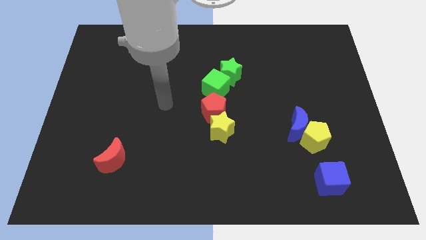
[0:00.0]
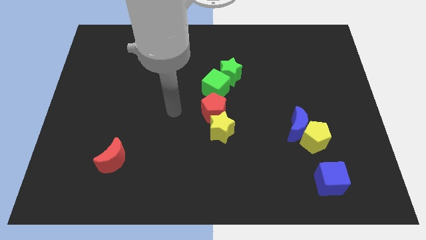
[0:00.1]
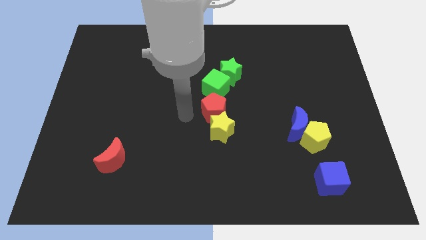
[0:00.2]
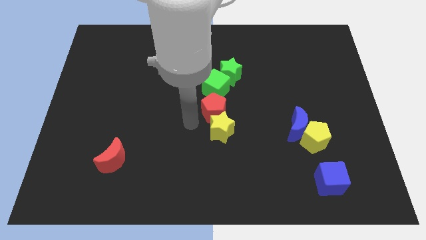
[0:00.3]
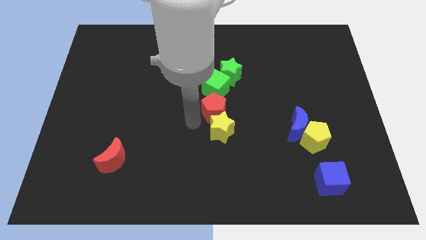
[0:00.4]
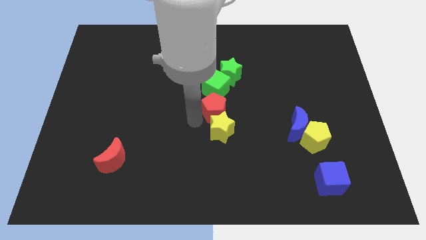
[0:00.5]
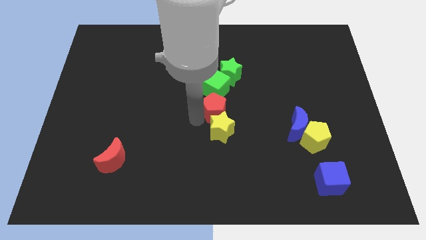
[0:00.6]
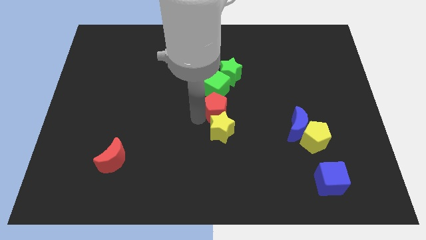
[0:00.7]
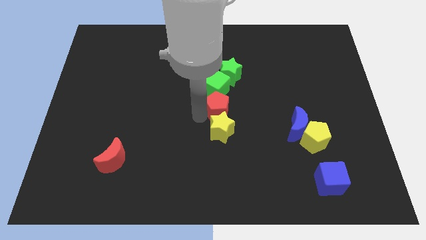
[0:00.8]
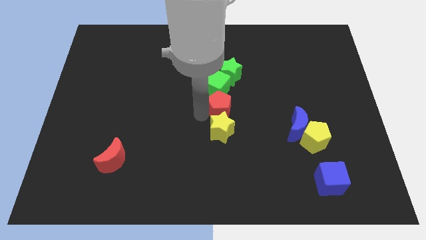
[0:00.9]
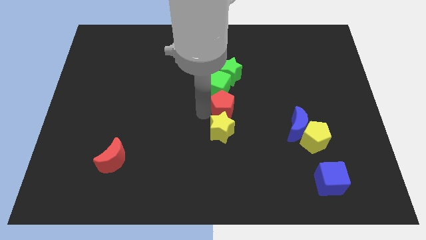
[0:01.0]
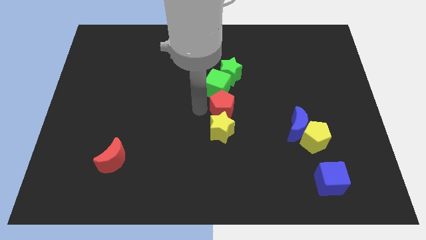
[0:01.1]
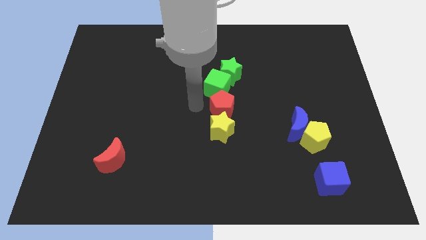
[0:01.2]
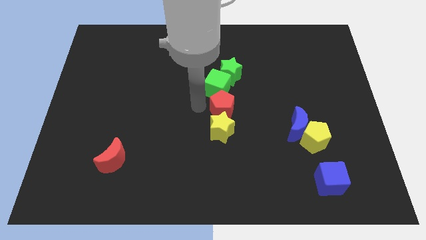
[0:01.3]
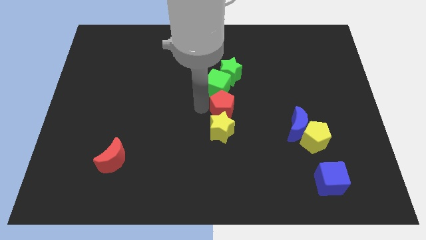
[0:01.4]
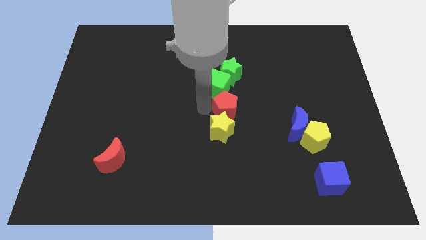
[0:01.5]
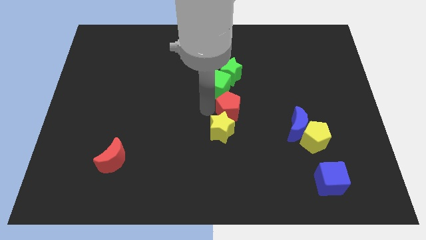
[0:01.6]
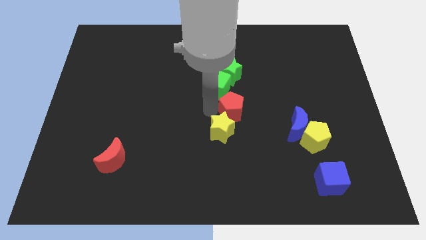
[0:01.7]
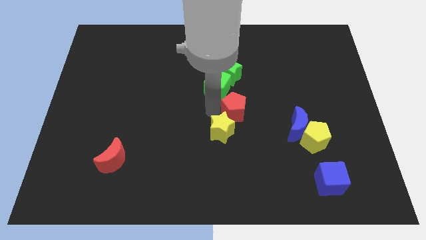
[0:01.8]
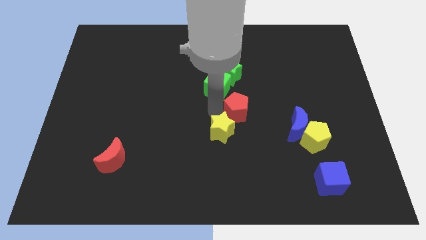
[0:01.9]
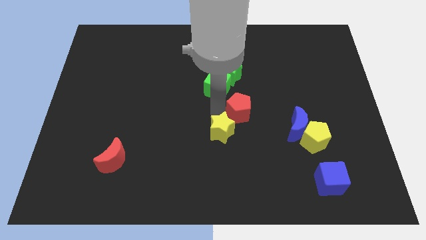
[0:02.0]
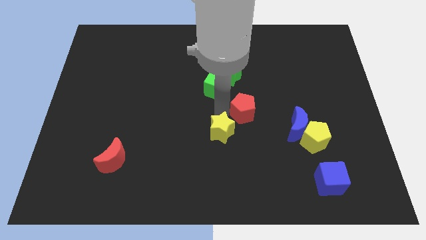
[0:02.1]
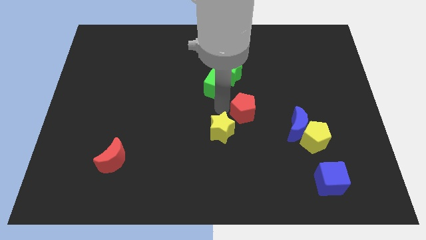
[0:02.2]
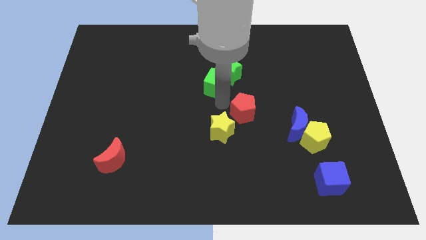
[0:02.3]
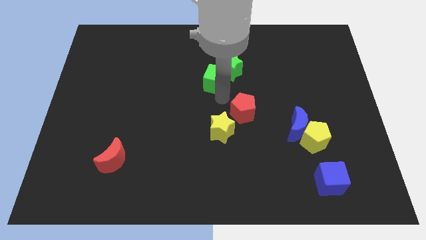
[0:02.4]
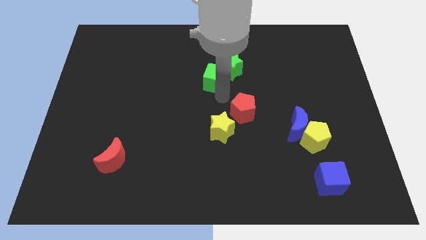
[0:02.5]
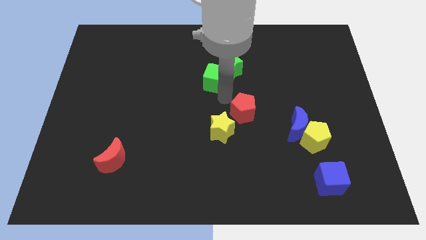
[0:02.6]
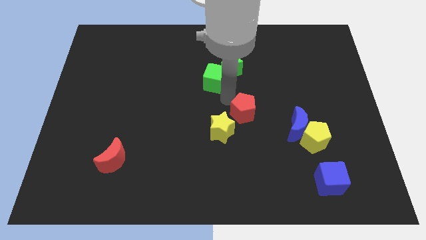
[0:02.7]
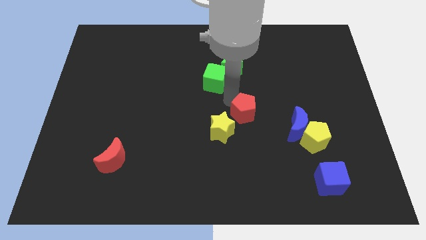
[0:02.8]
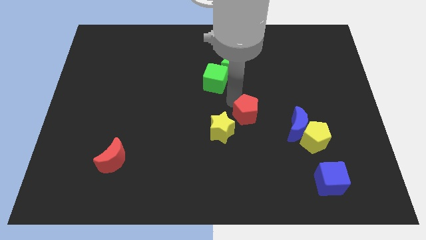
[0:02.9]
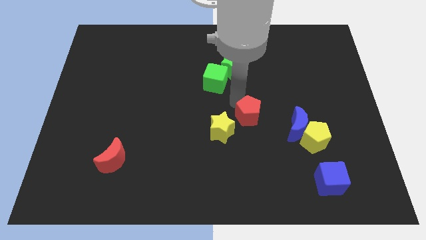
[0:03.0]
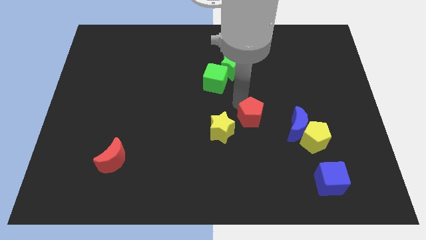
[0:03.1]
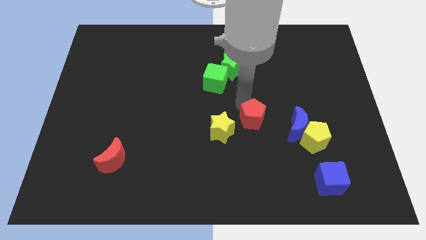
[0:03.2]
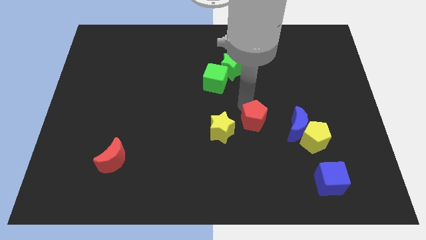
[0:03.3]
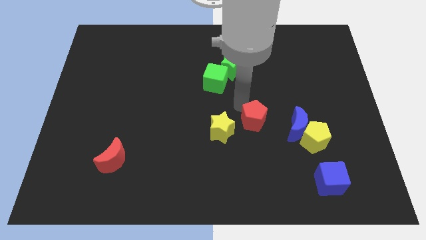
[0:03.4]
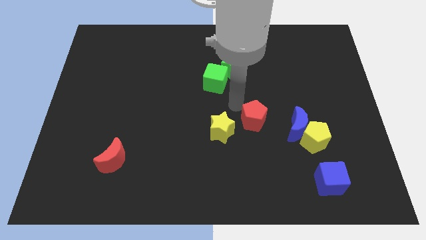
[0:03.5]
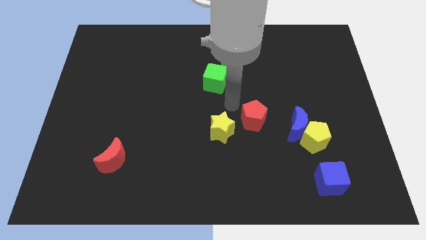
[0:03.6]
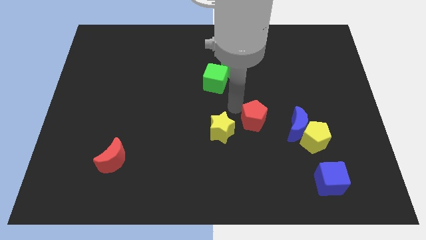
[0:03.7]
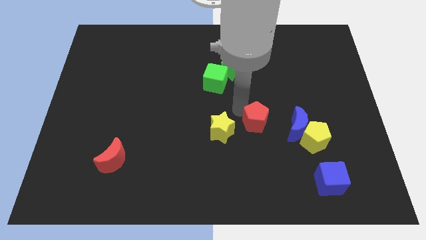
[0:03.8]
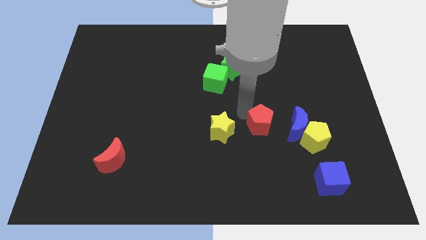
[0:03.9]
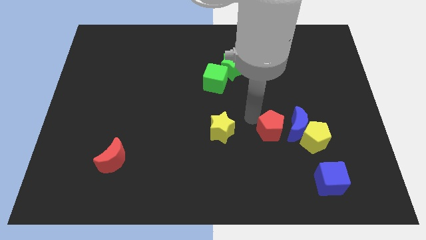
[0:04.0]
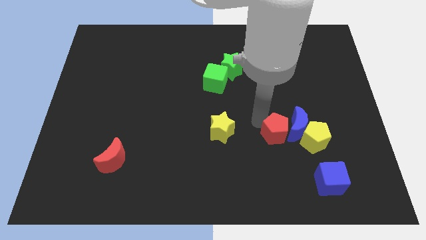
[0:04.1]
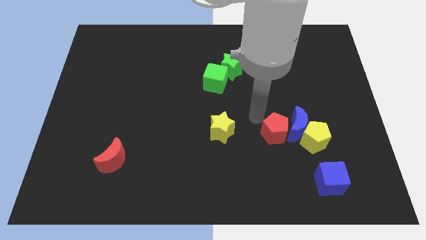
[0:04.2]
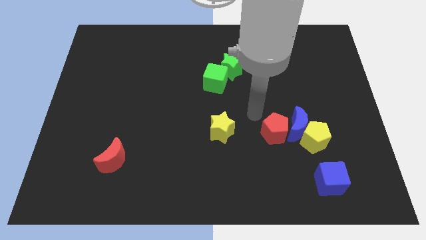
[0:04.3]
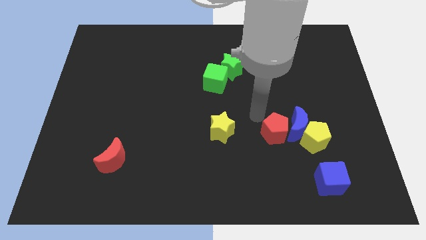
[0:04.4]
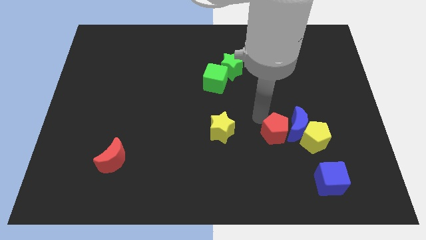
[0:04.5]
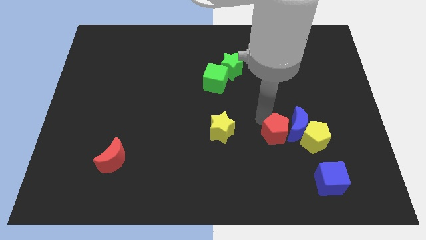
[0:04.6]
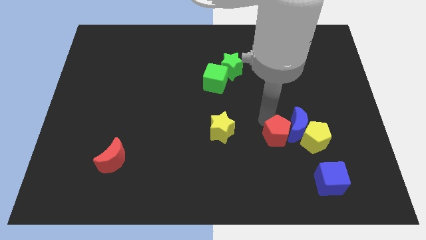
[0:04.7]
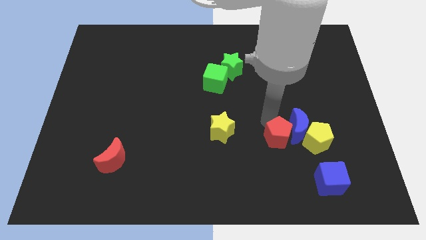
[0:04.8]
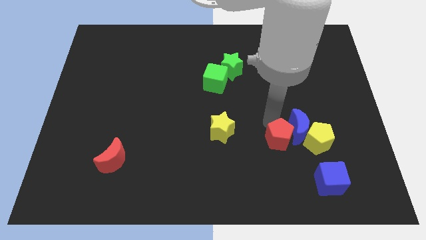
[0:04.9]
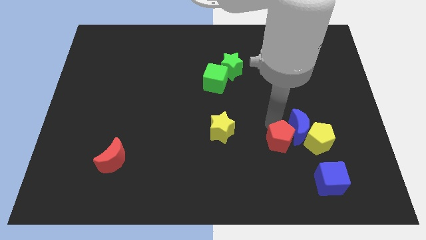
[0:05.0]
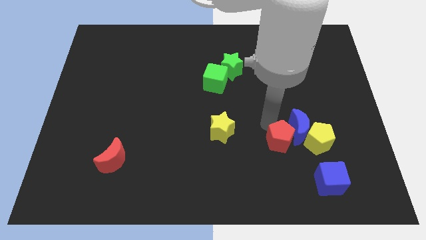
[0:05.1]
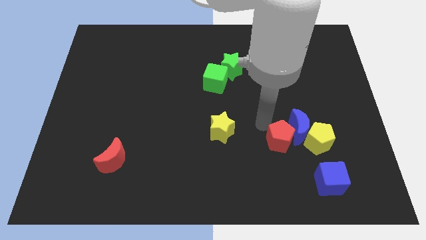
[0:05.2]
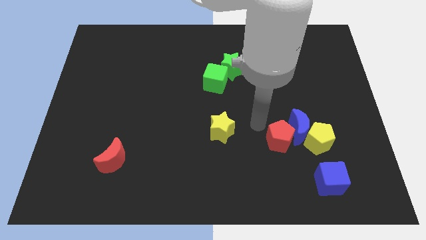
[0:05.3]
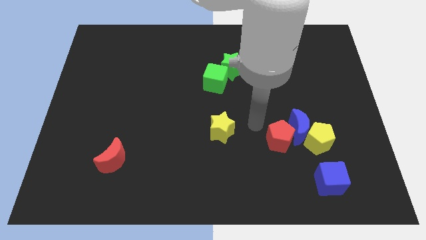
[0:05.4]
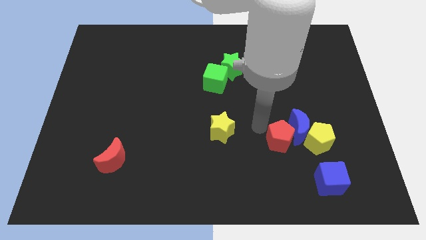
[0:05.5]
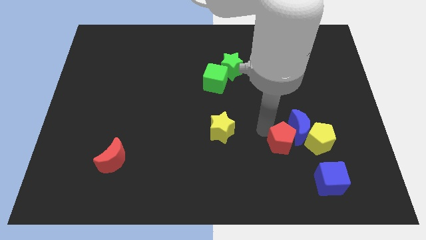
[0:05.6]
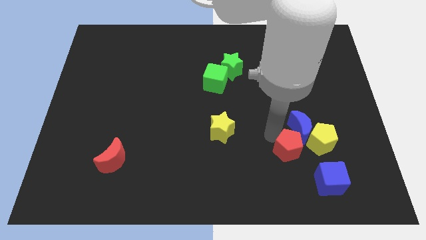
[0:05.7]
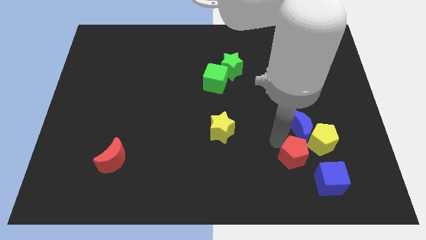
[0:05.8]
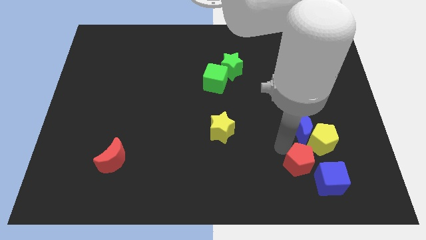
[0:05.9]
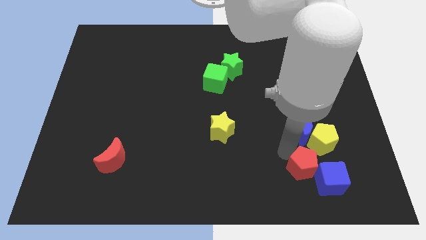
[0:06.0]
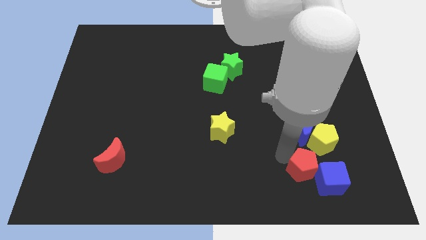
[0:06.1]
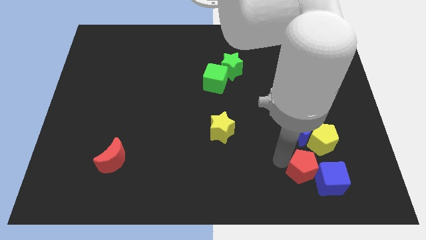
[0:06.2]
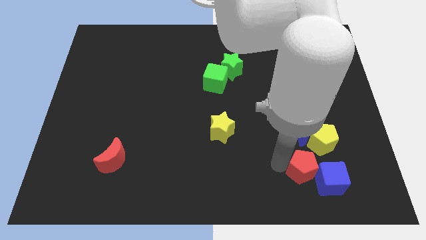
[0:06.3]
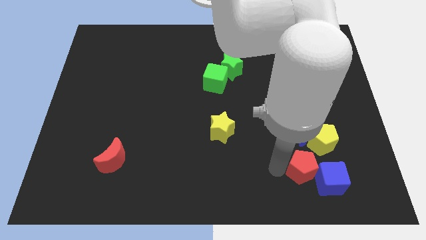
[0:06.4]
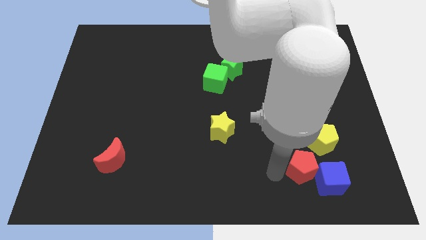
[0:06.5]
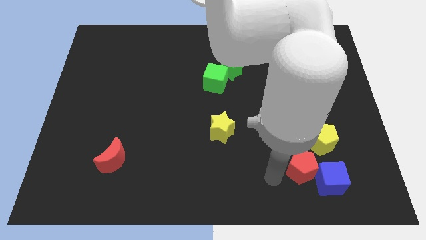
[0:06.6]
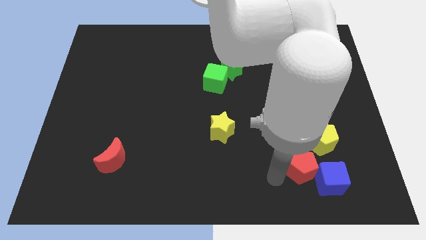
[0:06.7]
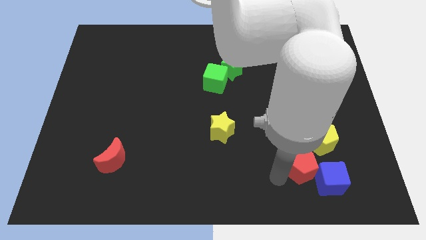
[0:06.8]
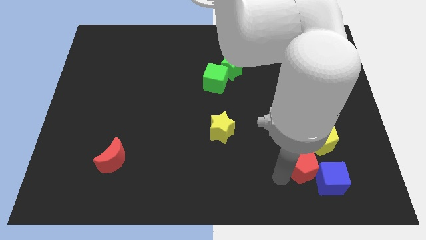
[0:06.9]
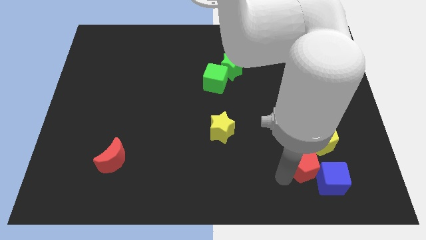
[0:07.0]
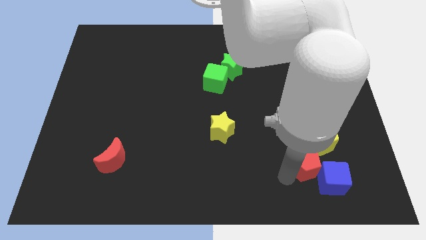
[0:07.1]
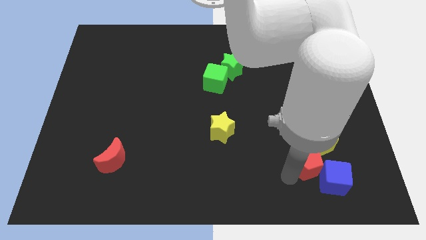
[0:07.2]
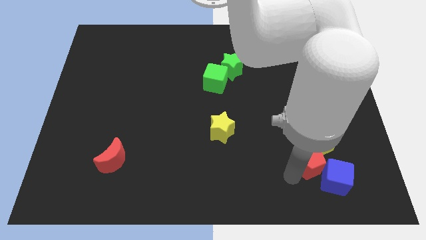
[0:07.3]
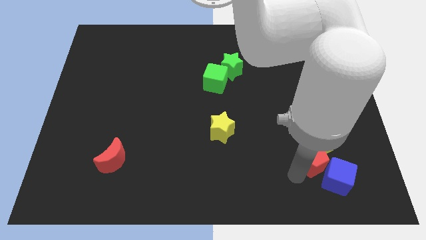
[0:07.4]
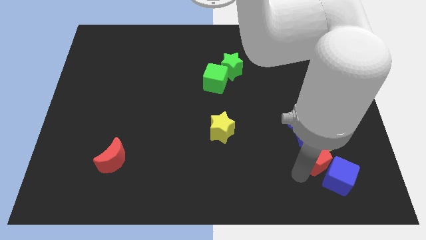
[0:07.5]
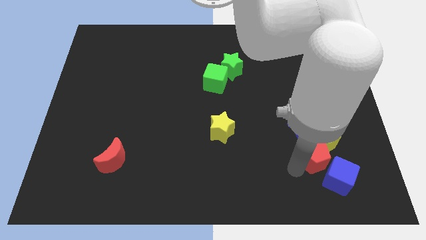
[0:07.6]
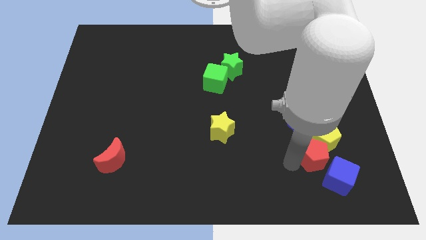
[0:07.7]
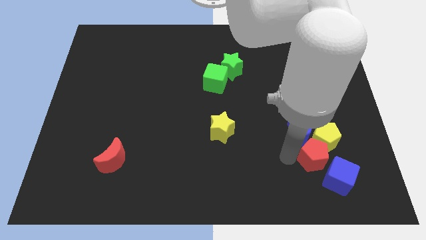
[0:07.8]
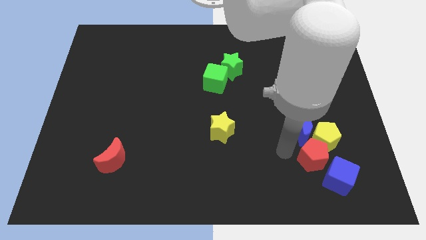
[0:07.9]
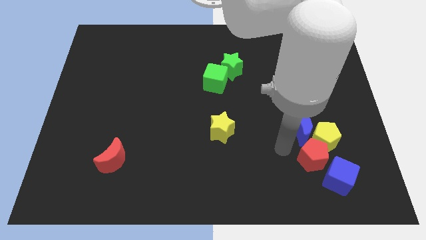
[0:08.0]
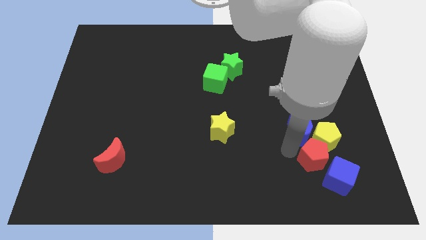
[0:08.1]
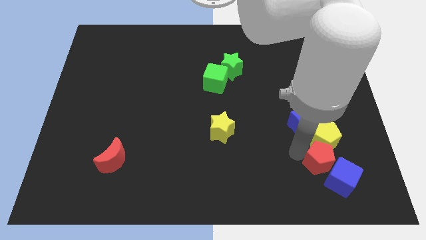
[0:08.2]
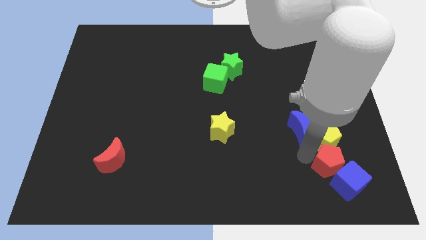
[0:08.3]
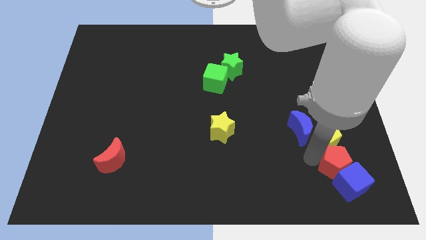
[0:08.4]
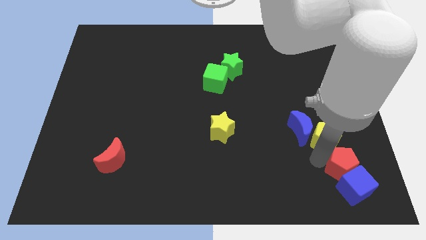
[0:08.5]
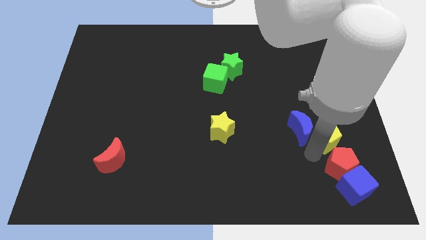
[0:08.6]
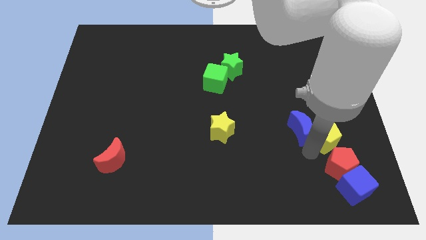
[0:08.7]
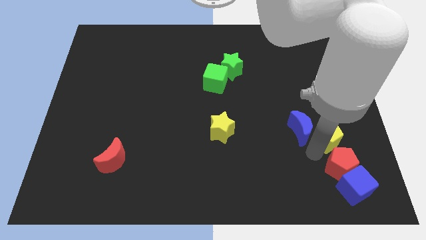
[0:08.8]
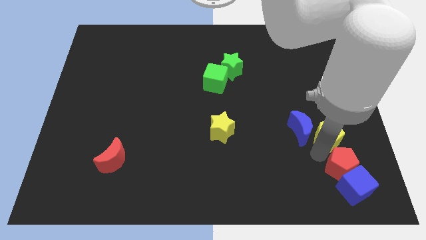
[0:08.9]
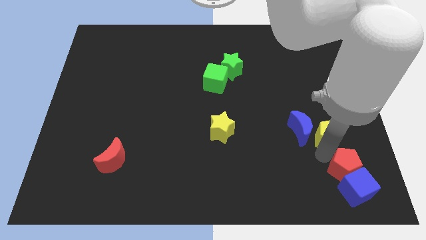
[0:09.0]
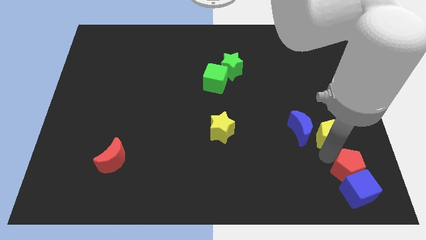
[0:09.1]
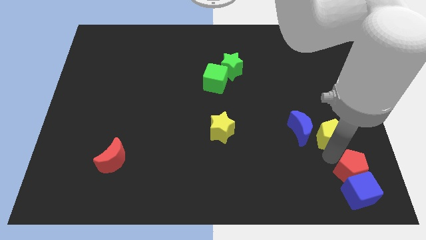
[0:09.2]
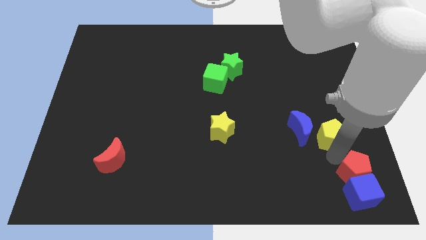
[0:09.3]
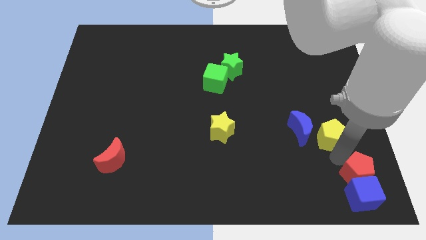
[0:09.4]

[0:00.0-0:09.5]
put the red pentagon to the bottom right of the board
